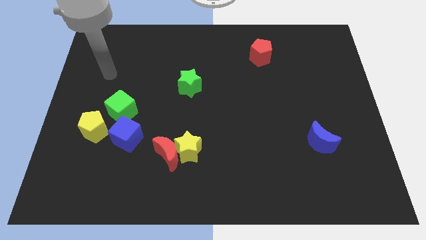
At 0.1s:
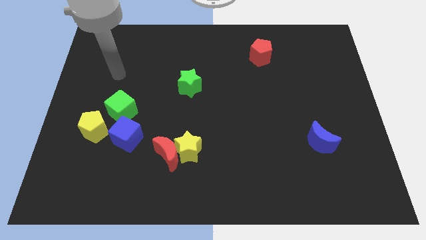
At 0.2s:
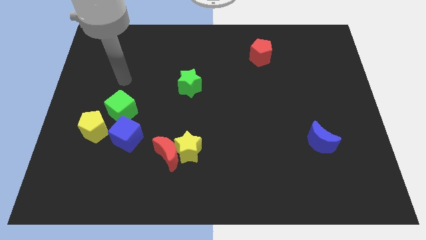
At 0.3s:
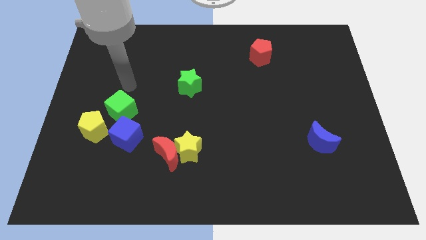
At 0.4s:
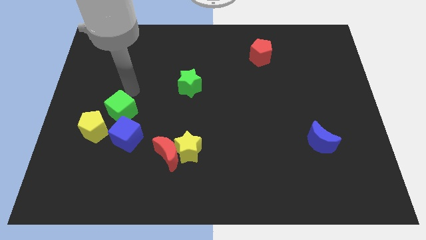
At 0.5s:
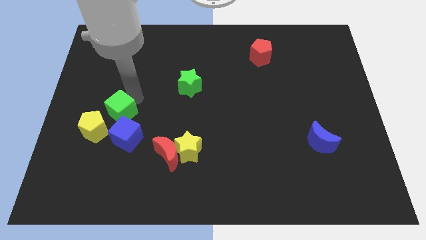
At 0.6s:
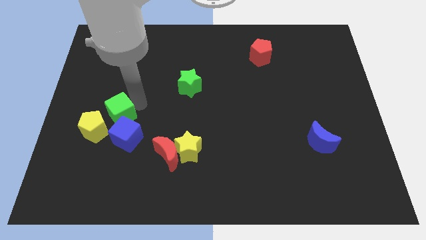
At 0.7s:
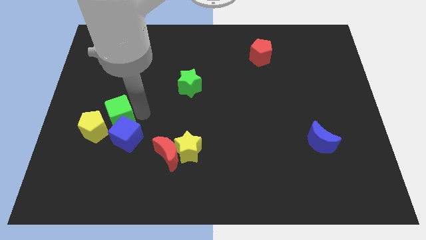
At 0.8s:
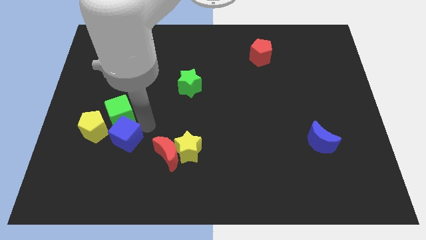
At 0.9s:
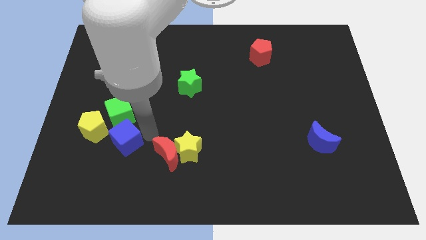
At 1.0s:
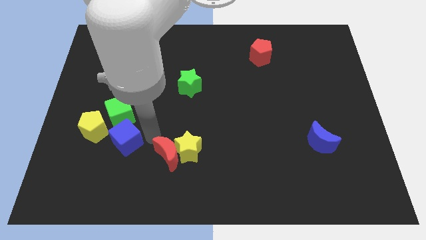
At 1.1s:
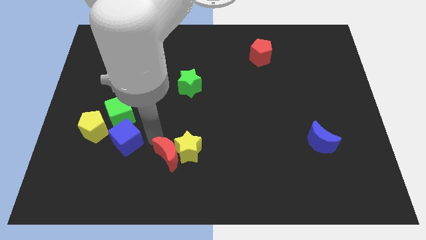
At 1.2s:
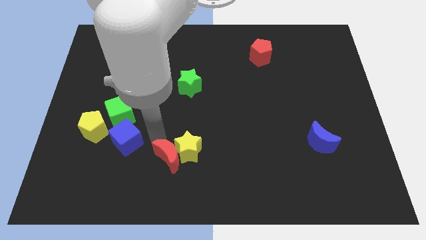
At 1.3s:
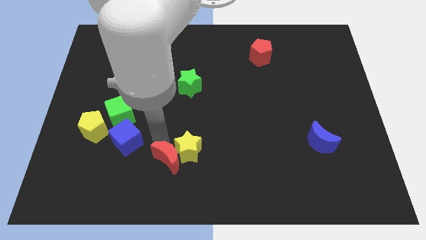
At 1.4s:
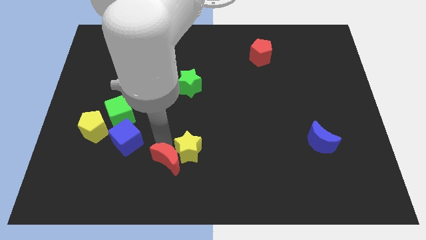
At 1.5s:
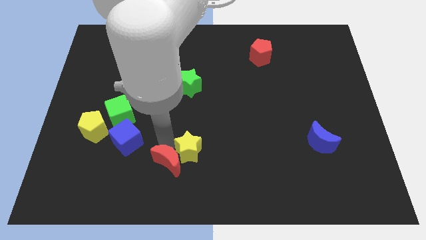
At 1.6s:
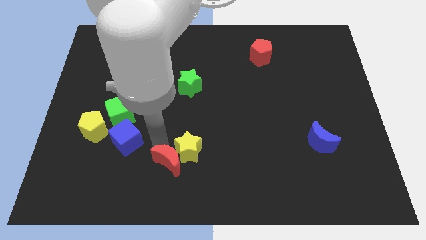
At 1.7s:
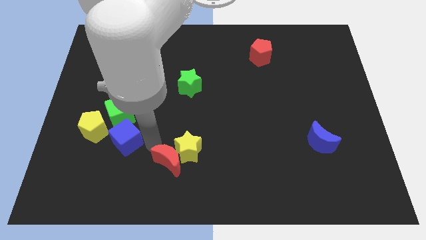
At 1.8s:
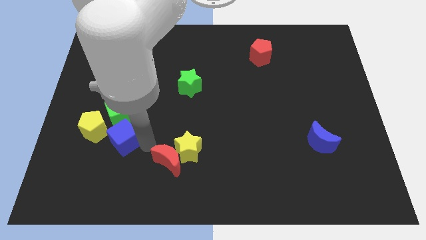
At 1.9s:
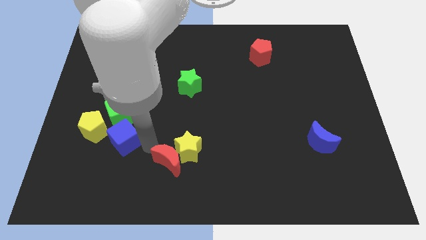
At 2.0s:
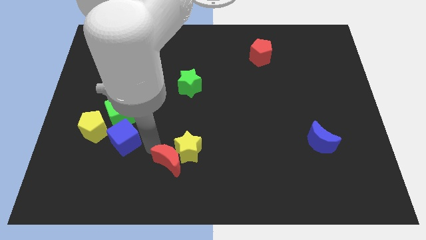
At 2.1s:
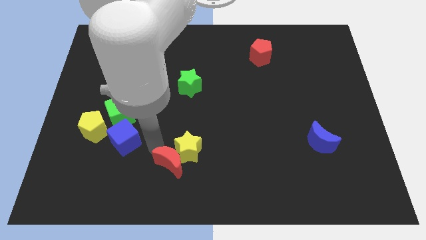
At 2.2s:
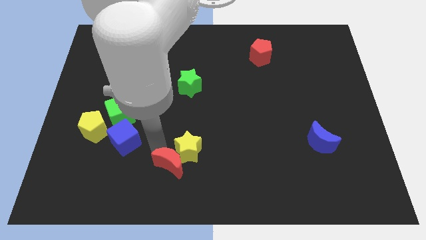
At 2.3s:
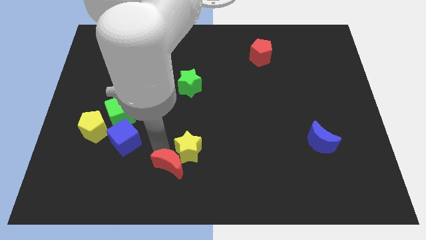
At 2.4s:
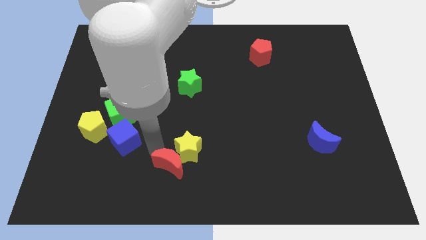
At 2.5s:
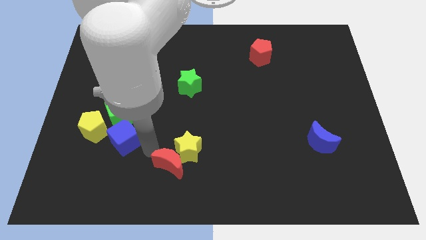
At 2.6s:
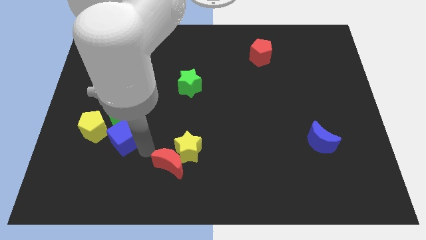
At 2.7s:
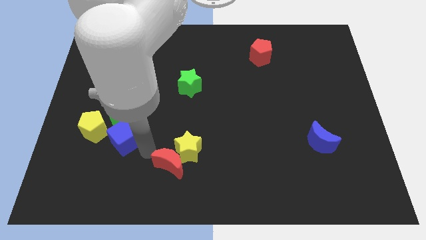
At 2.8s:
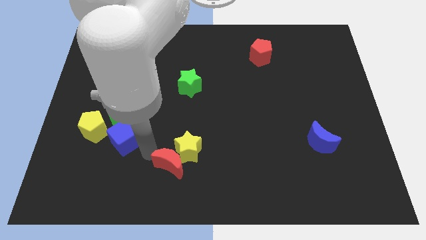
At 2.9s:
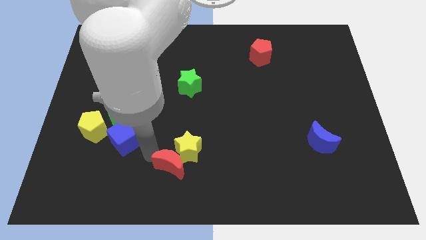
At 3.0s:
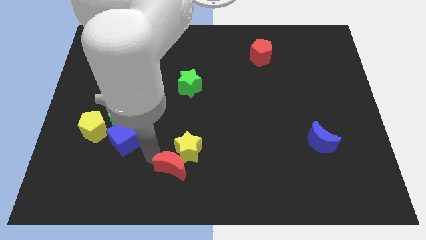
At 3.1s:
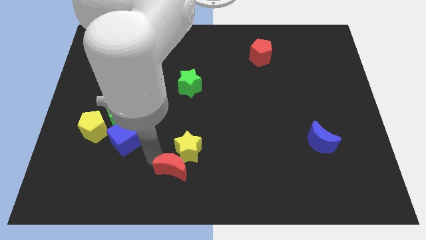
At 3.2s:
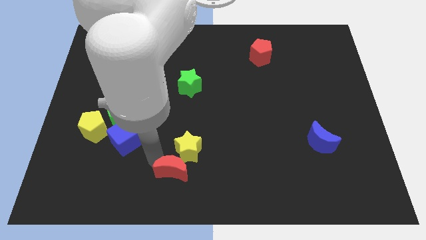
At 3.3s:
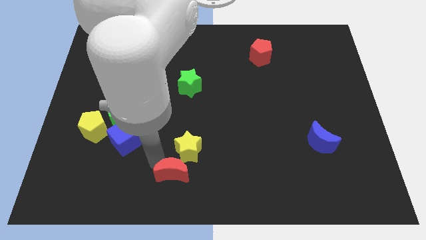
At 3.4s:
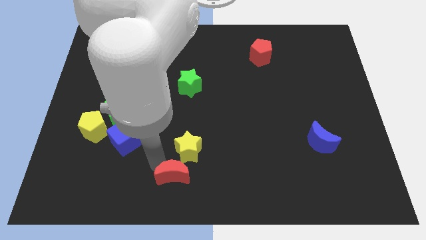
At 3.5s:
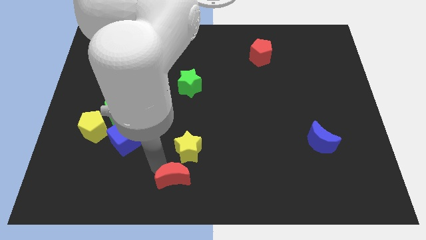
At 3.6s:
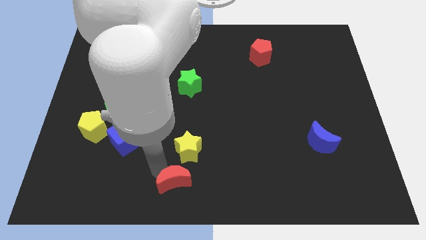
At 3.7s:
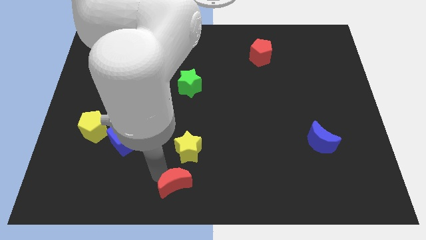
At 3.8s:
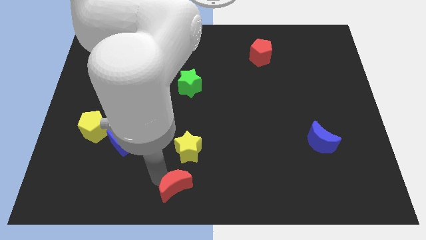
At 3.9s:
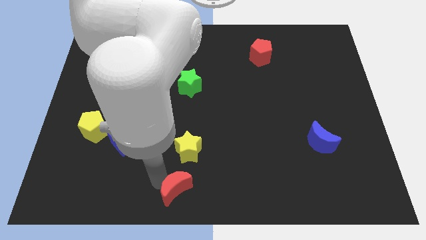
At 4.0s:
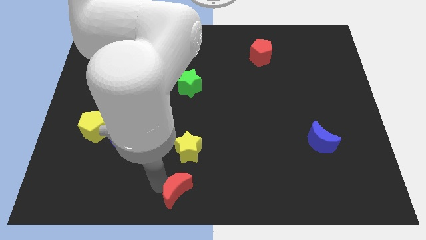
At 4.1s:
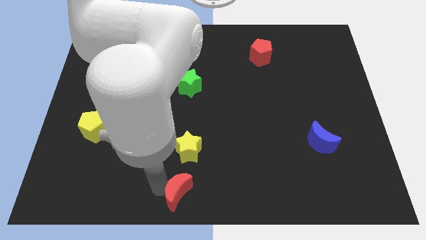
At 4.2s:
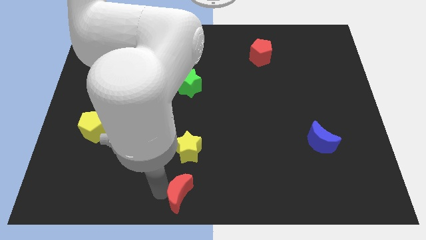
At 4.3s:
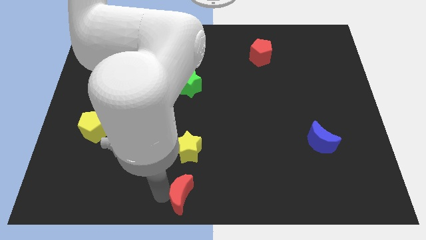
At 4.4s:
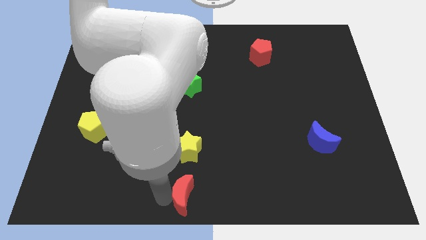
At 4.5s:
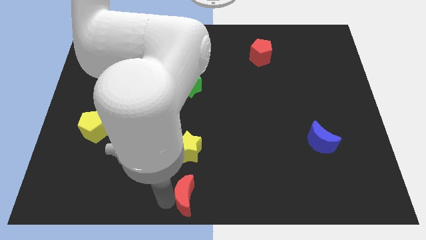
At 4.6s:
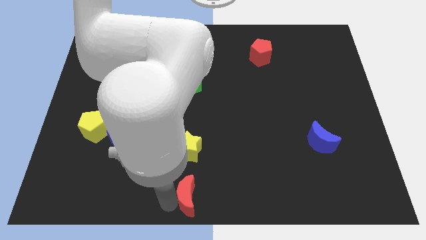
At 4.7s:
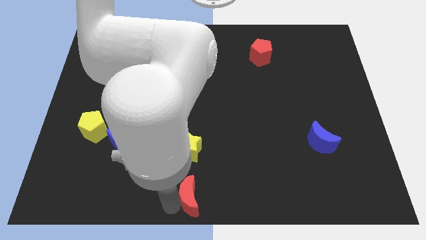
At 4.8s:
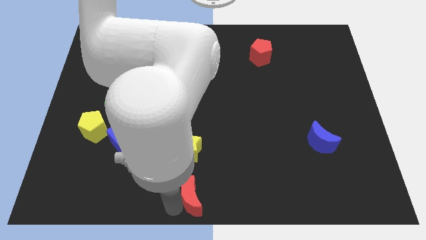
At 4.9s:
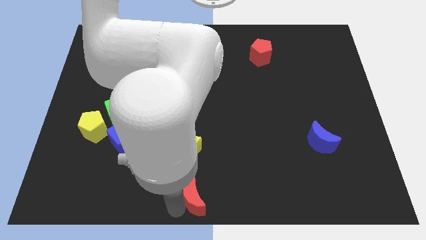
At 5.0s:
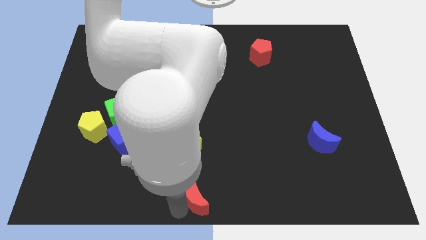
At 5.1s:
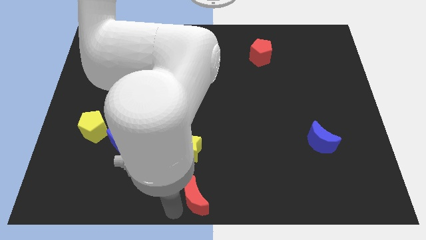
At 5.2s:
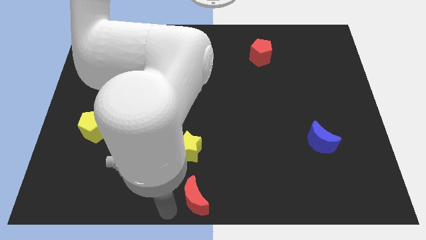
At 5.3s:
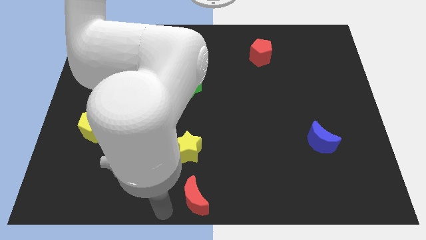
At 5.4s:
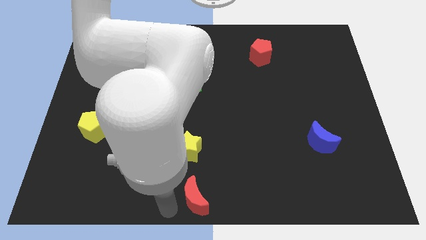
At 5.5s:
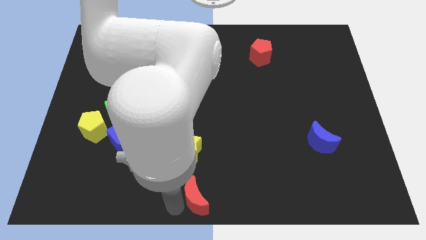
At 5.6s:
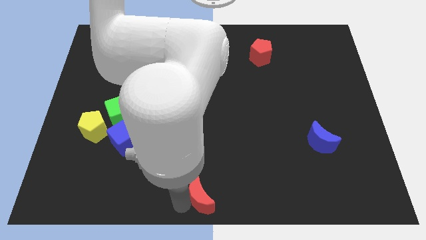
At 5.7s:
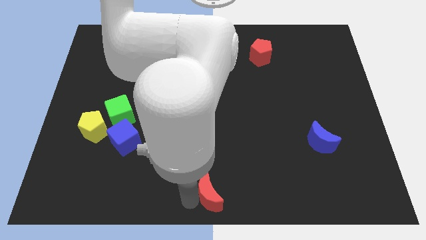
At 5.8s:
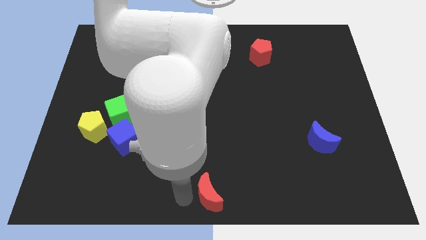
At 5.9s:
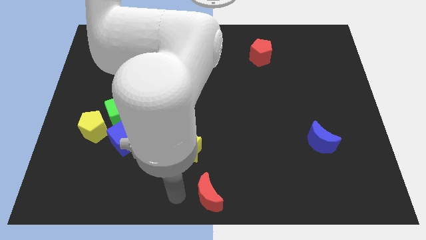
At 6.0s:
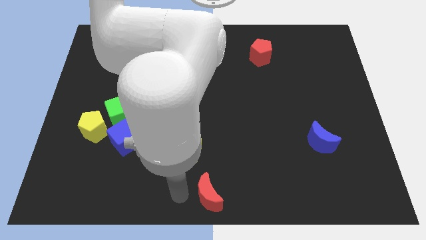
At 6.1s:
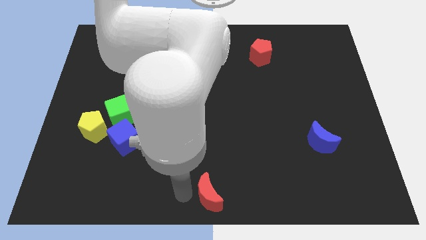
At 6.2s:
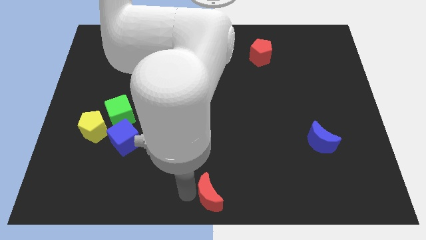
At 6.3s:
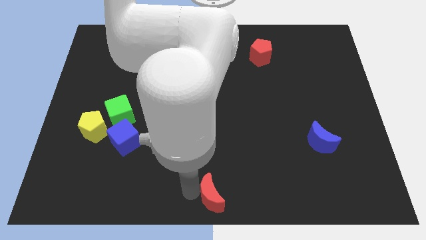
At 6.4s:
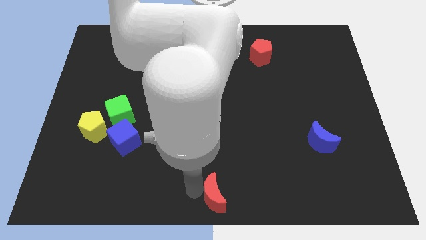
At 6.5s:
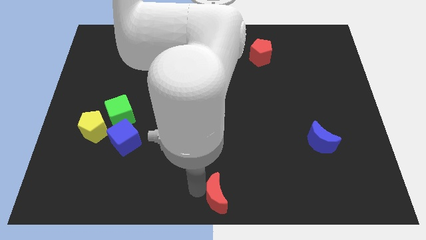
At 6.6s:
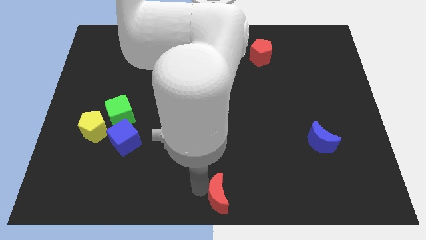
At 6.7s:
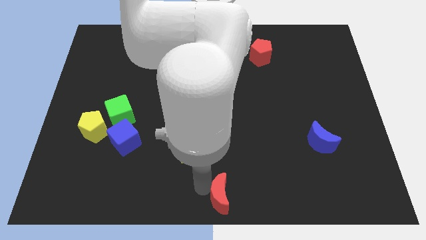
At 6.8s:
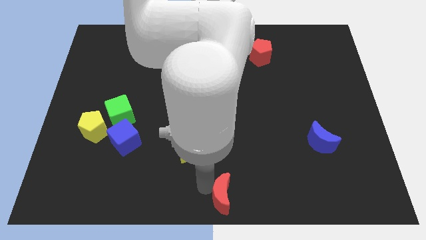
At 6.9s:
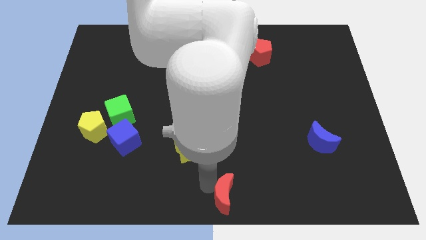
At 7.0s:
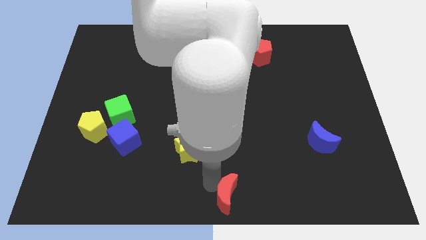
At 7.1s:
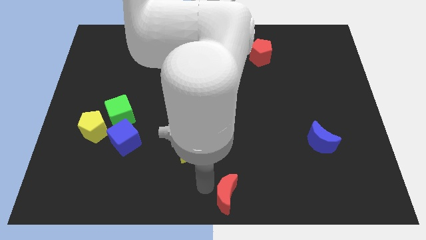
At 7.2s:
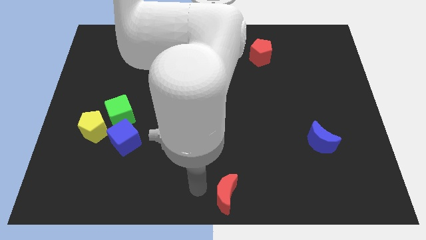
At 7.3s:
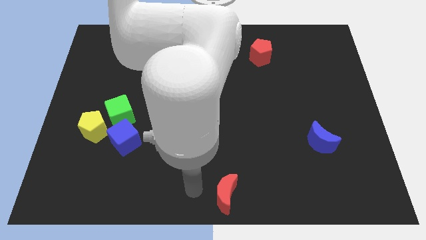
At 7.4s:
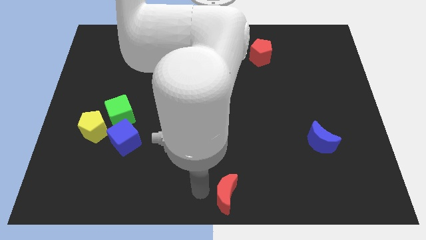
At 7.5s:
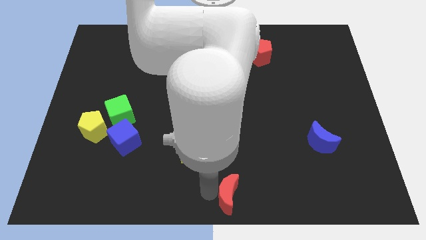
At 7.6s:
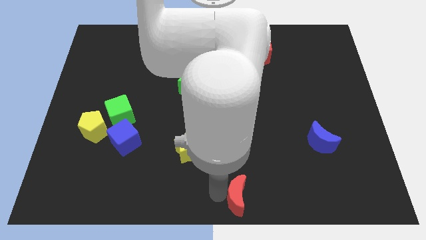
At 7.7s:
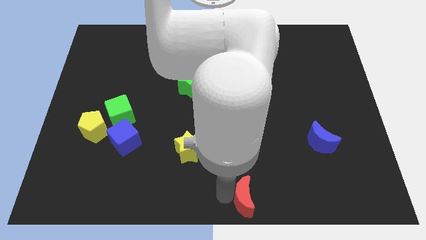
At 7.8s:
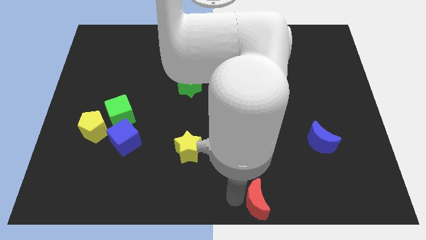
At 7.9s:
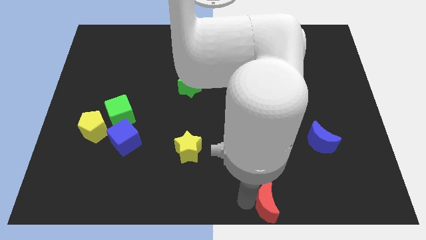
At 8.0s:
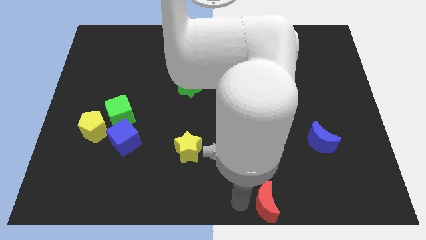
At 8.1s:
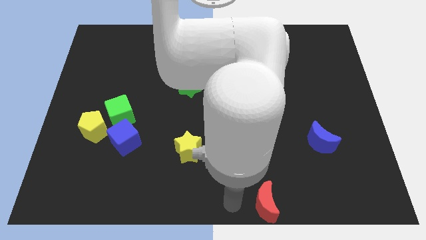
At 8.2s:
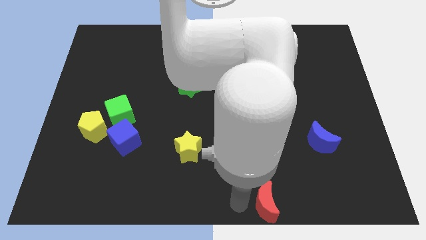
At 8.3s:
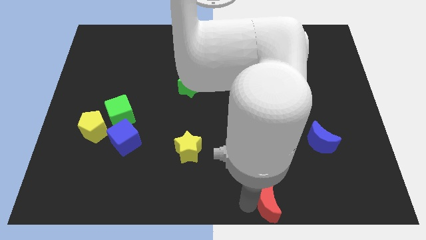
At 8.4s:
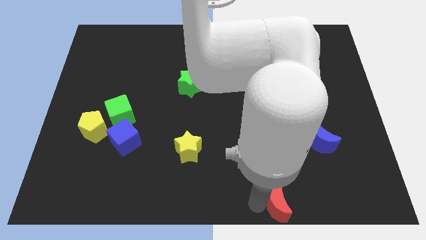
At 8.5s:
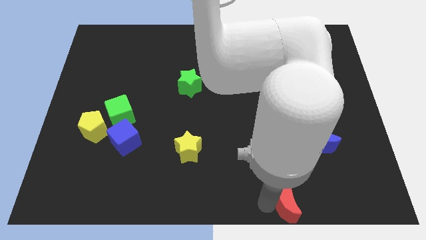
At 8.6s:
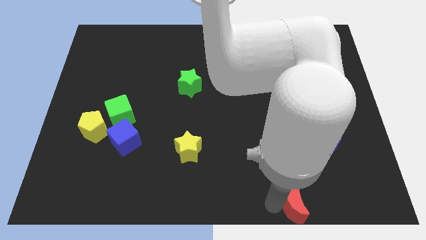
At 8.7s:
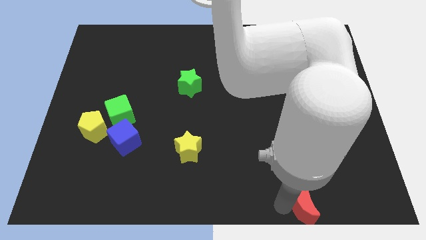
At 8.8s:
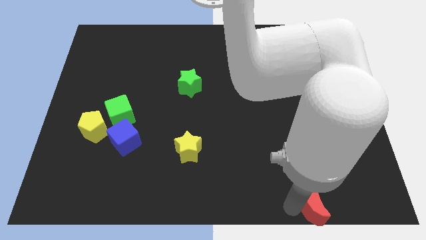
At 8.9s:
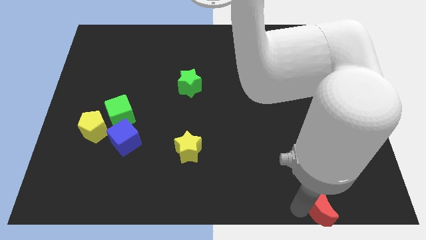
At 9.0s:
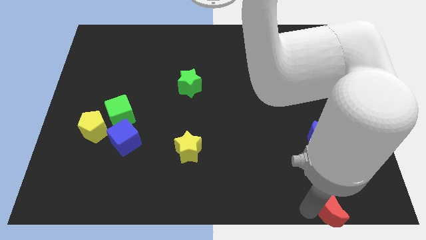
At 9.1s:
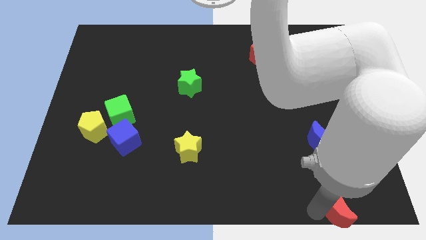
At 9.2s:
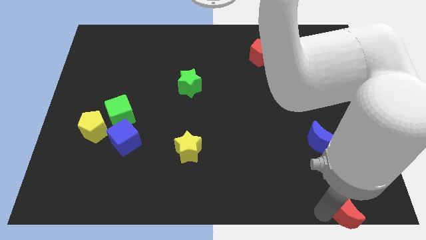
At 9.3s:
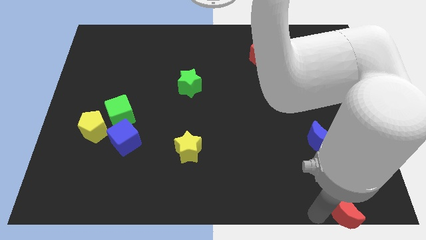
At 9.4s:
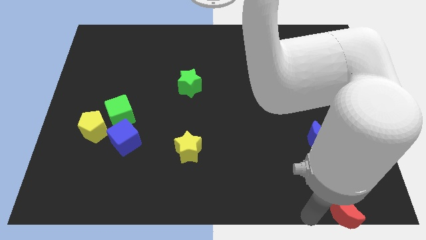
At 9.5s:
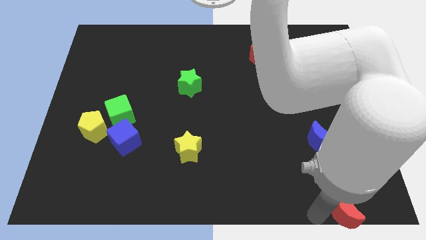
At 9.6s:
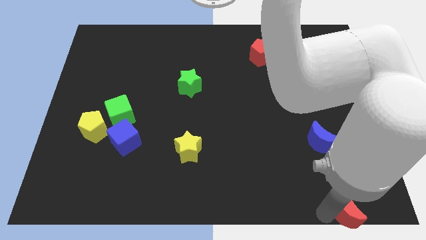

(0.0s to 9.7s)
slide the red moon to the lower right corner
